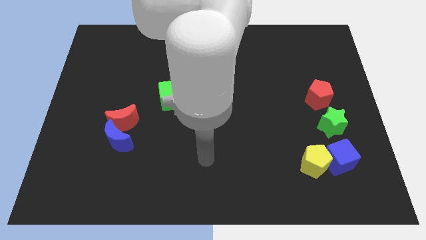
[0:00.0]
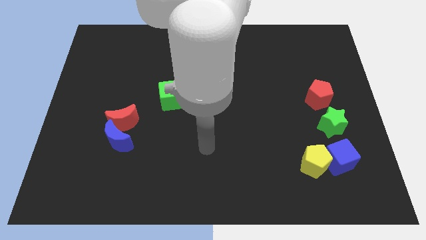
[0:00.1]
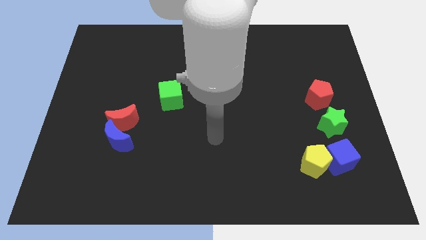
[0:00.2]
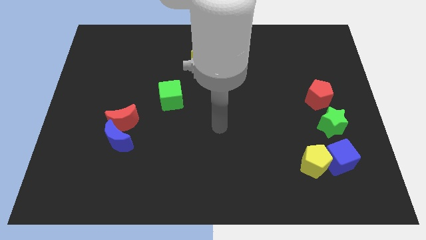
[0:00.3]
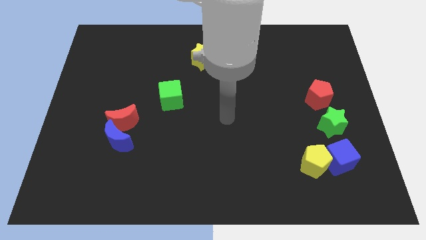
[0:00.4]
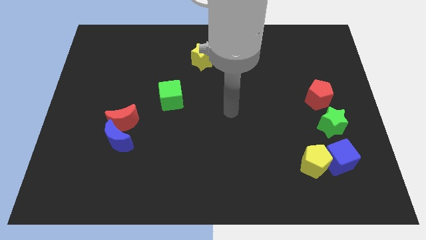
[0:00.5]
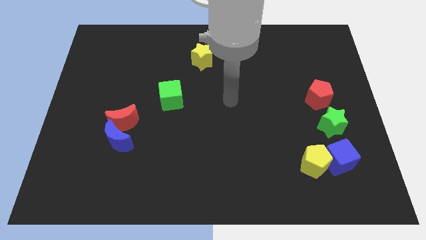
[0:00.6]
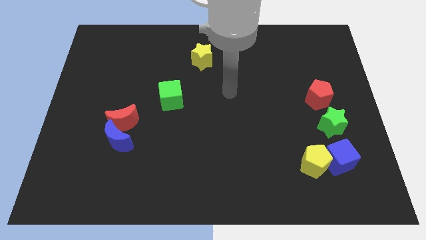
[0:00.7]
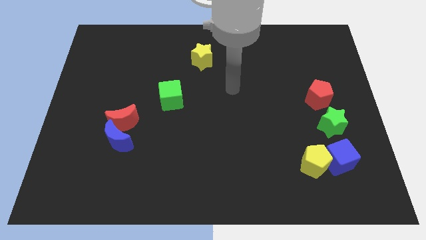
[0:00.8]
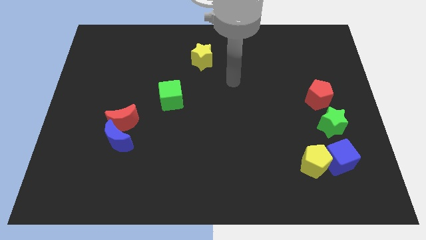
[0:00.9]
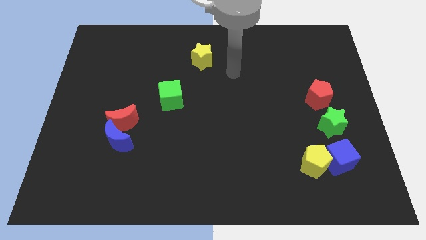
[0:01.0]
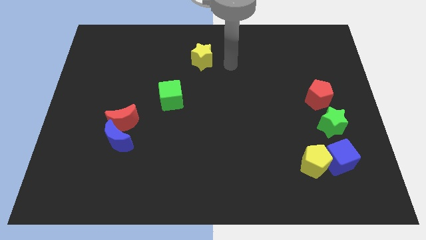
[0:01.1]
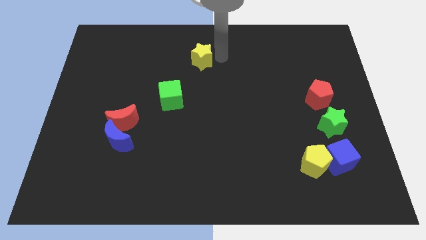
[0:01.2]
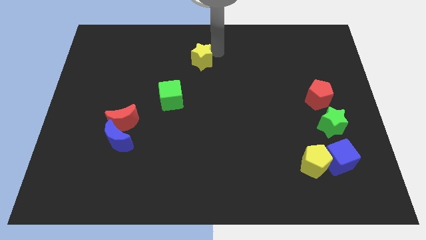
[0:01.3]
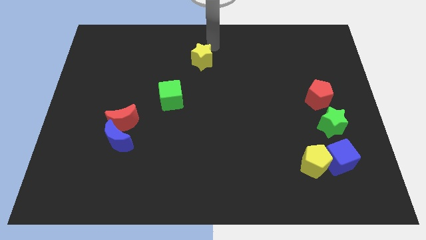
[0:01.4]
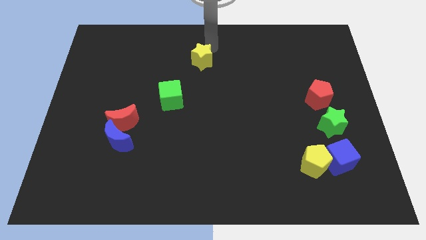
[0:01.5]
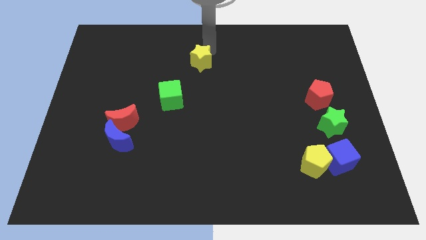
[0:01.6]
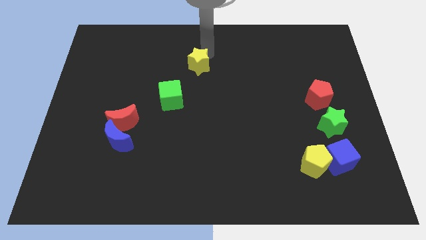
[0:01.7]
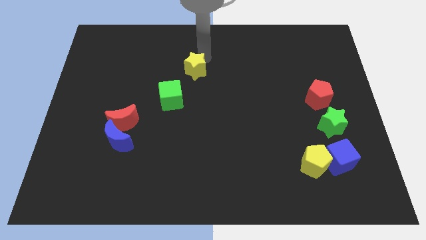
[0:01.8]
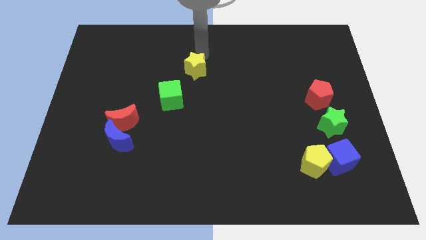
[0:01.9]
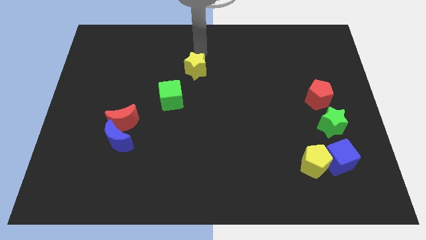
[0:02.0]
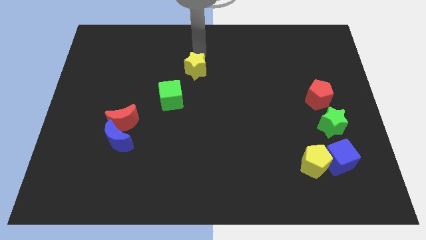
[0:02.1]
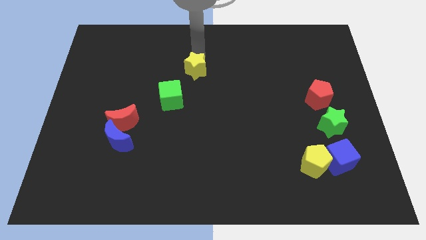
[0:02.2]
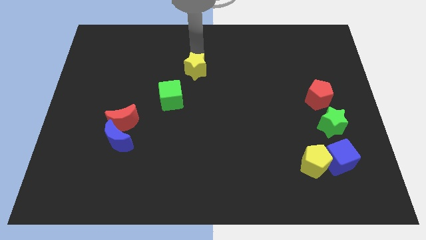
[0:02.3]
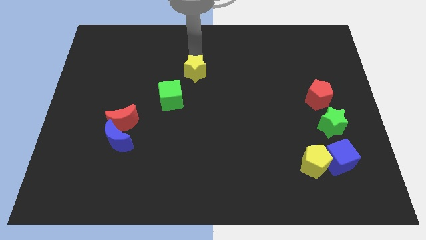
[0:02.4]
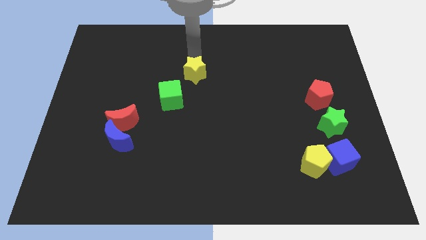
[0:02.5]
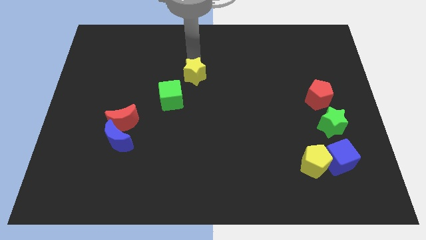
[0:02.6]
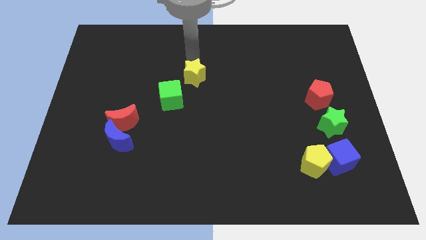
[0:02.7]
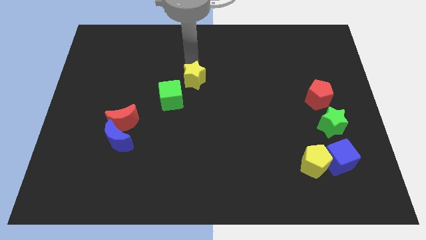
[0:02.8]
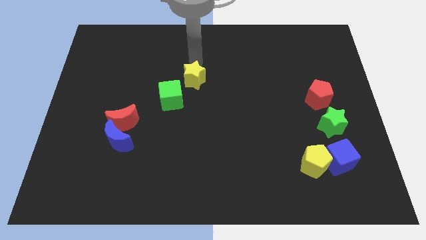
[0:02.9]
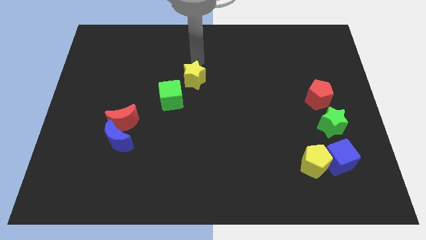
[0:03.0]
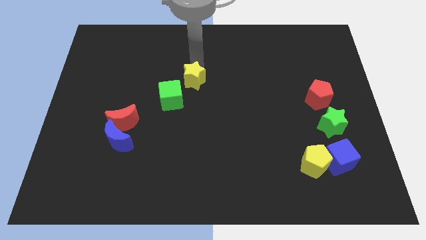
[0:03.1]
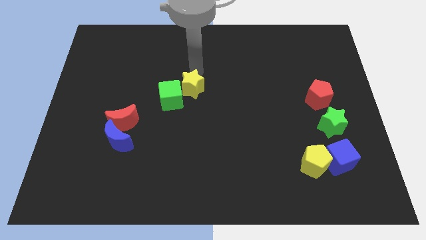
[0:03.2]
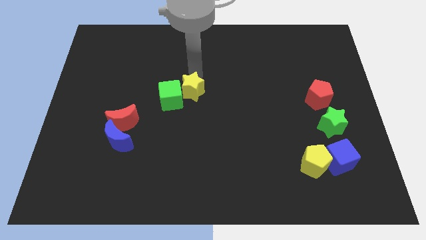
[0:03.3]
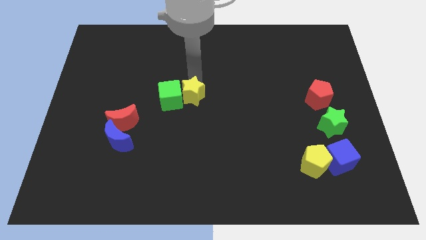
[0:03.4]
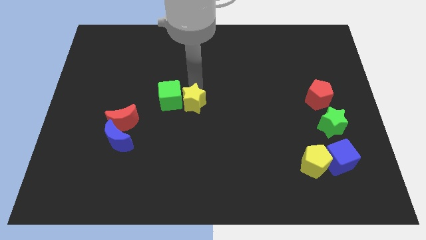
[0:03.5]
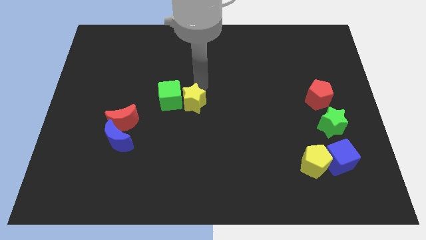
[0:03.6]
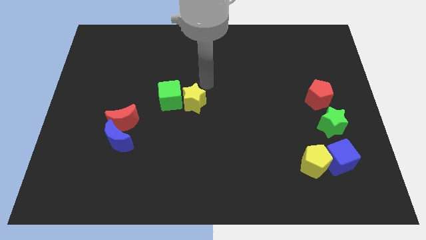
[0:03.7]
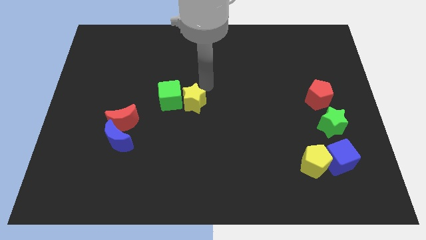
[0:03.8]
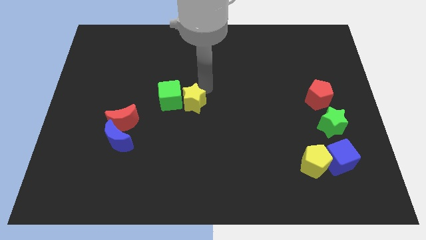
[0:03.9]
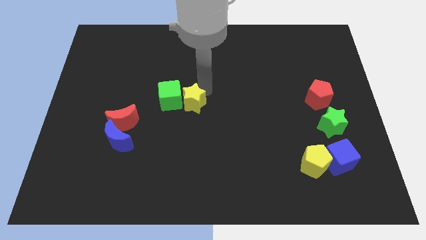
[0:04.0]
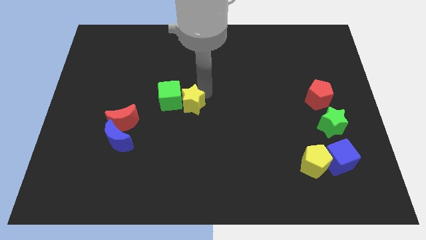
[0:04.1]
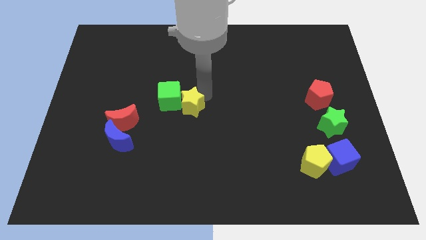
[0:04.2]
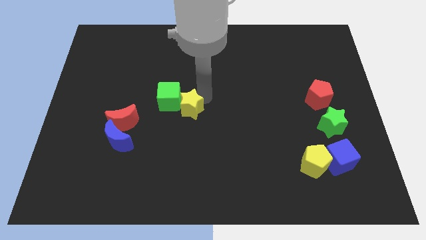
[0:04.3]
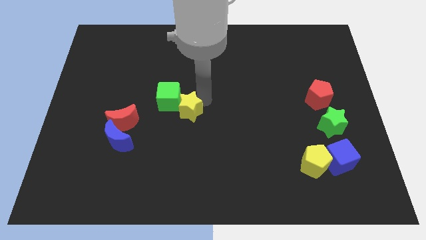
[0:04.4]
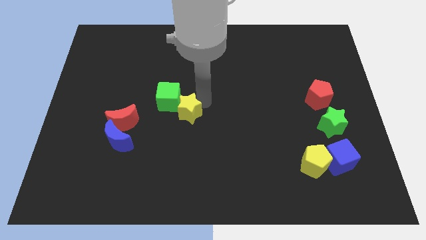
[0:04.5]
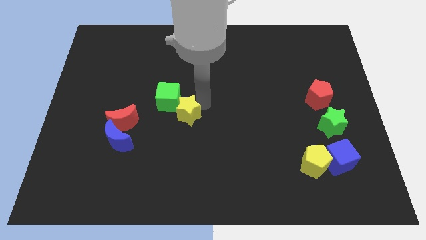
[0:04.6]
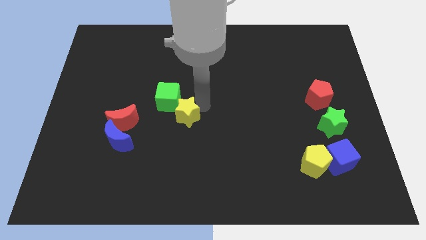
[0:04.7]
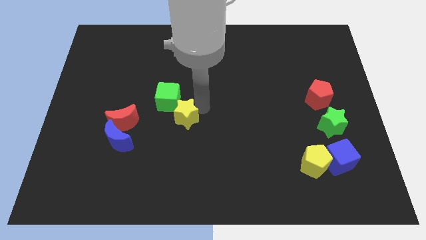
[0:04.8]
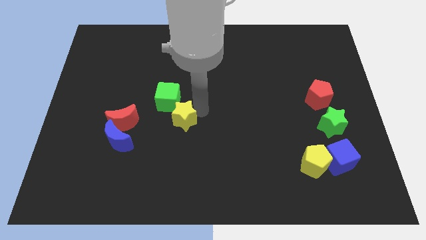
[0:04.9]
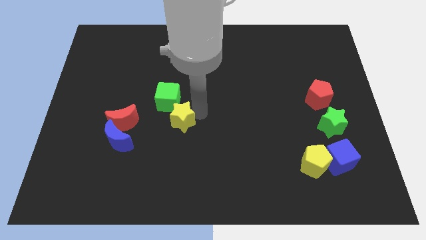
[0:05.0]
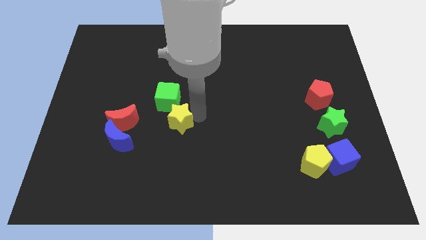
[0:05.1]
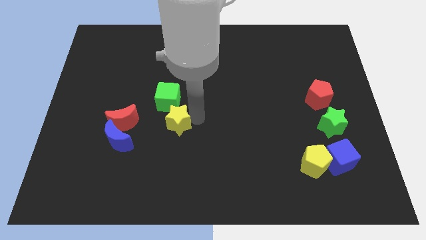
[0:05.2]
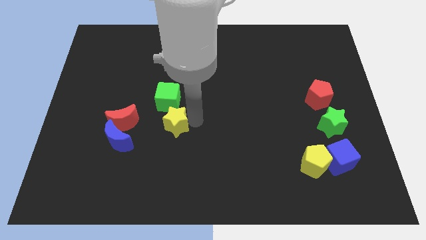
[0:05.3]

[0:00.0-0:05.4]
push the yellow star just right of the blue moon

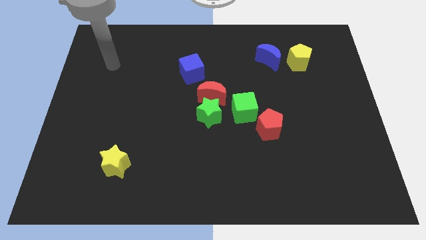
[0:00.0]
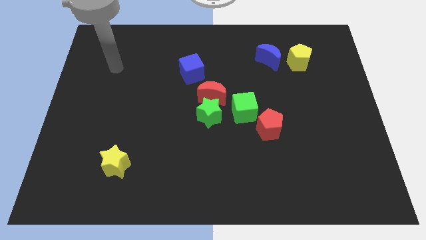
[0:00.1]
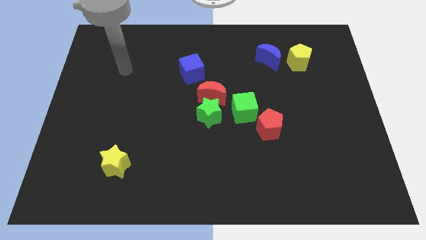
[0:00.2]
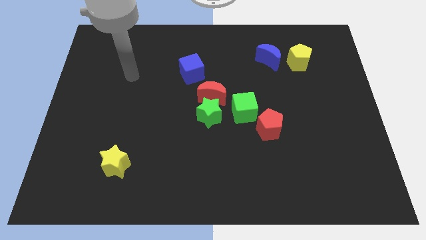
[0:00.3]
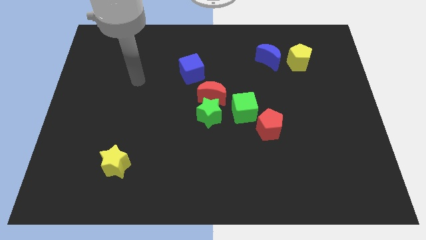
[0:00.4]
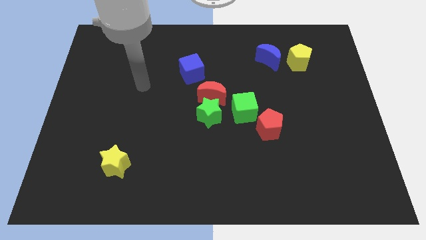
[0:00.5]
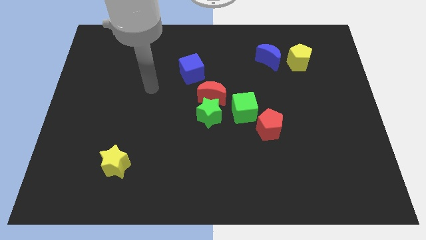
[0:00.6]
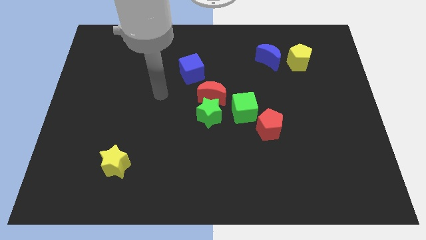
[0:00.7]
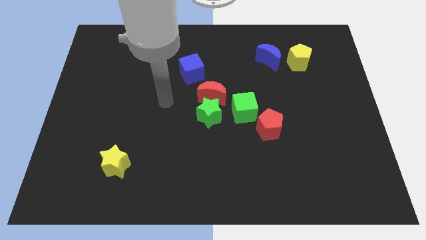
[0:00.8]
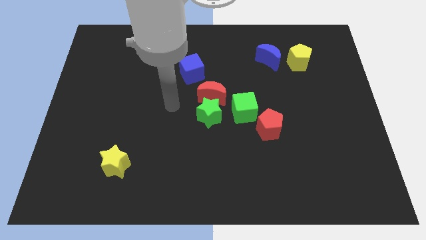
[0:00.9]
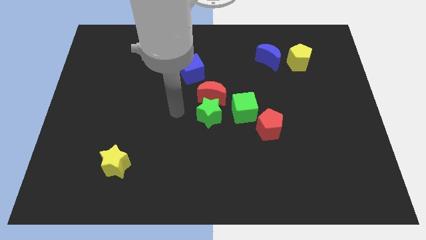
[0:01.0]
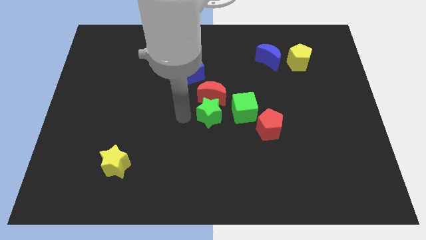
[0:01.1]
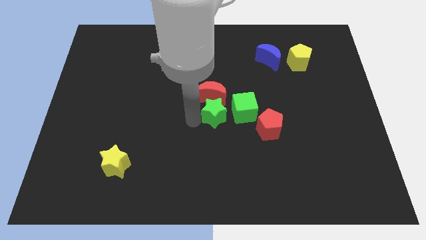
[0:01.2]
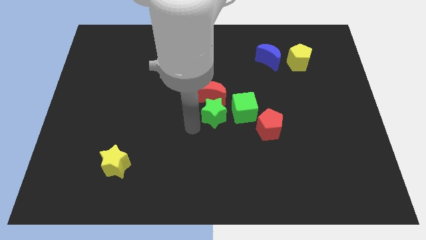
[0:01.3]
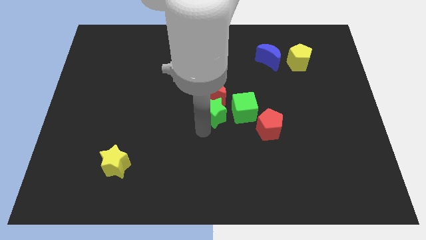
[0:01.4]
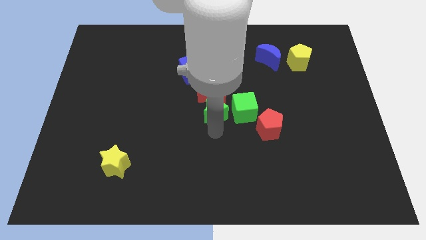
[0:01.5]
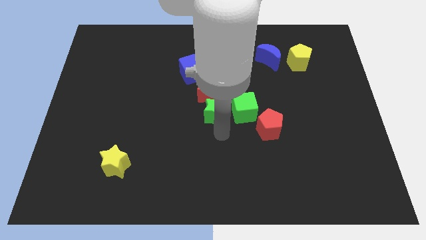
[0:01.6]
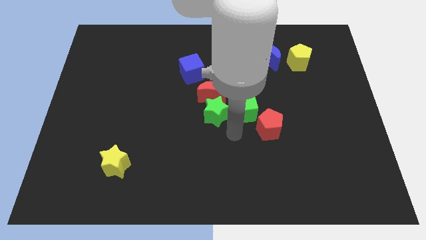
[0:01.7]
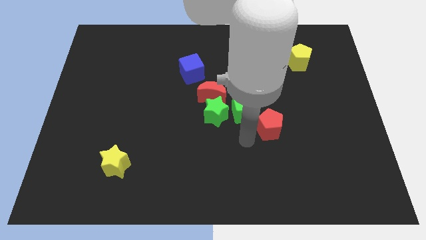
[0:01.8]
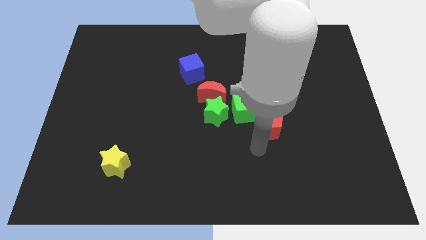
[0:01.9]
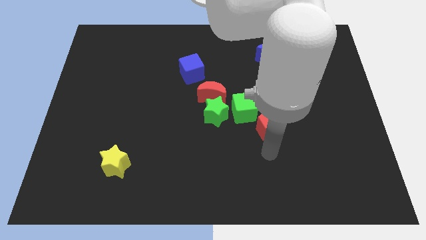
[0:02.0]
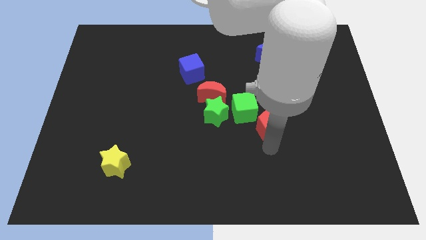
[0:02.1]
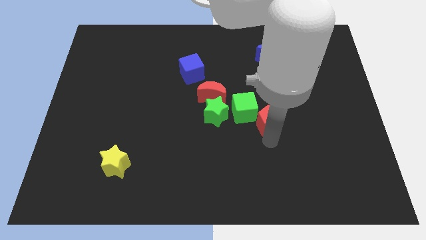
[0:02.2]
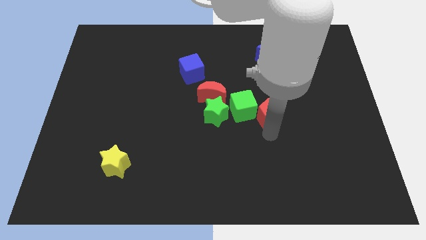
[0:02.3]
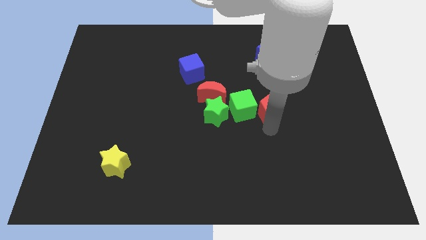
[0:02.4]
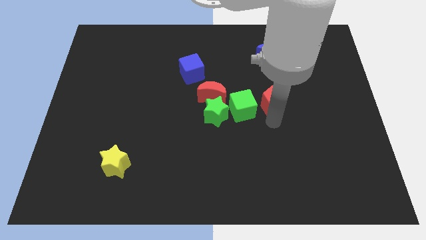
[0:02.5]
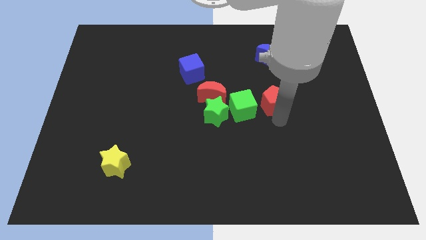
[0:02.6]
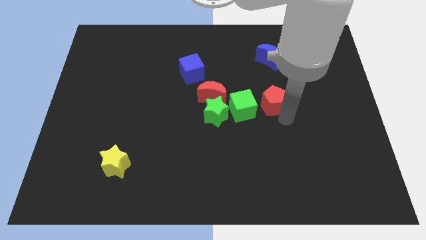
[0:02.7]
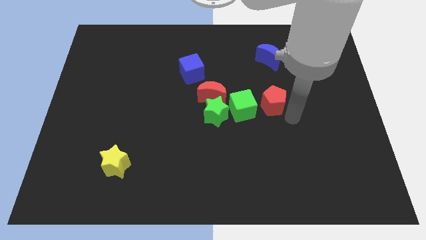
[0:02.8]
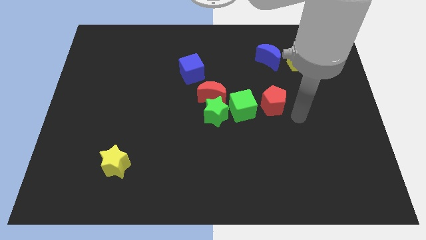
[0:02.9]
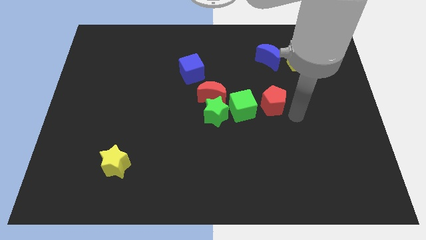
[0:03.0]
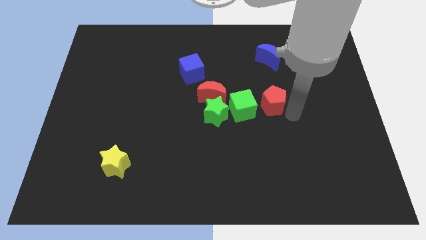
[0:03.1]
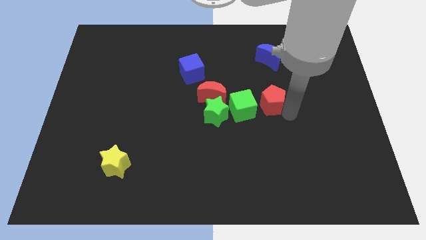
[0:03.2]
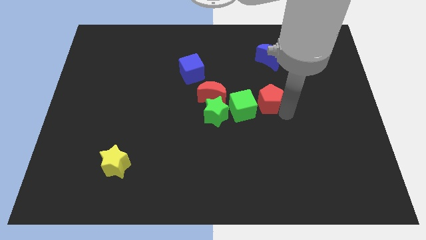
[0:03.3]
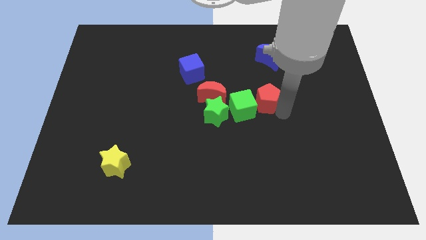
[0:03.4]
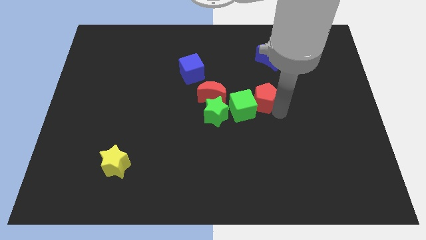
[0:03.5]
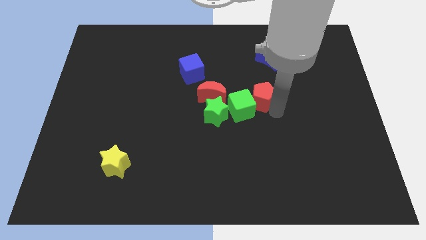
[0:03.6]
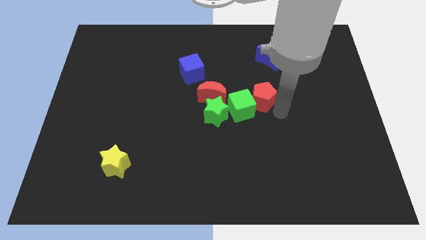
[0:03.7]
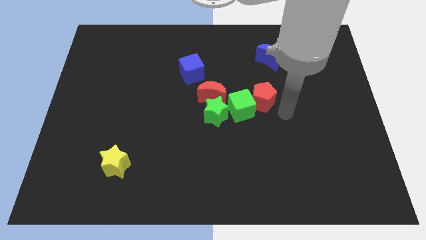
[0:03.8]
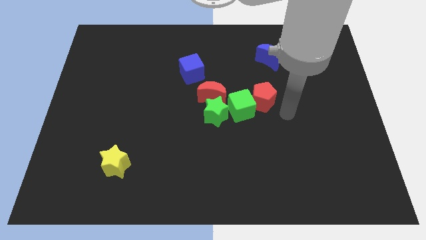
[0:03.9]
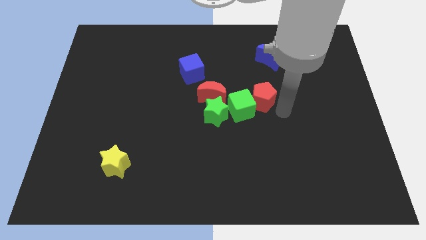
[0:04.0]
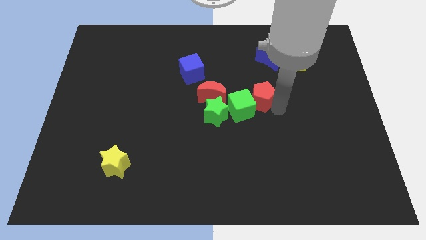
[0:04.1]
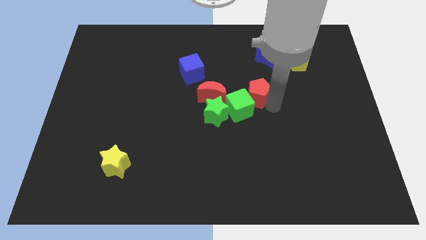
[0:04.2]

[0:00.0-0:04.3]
put the red pentagon to the top right of the green star
